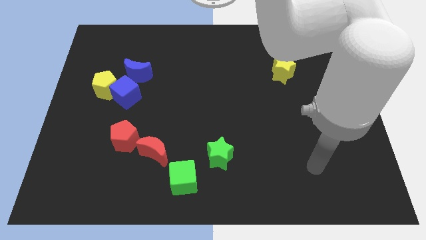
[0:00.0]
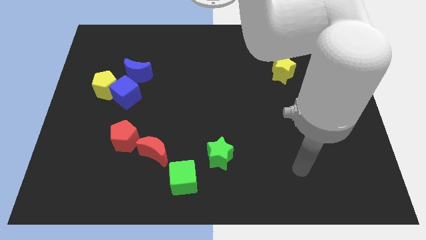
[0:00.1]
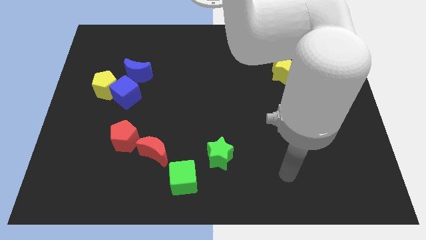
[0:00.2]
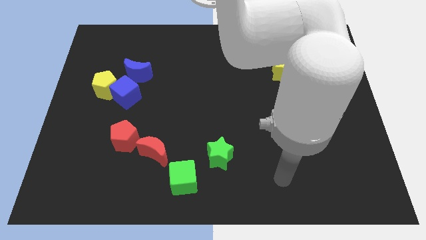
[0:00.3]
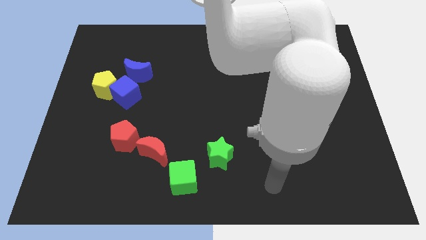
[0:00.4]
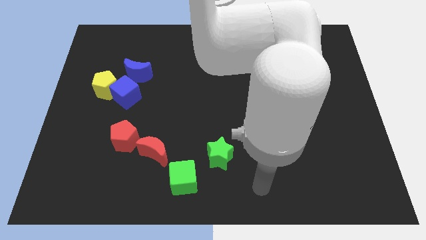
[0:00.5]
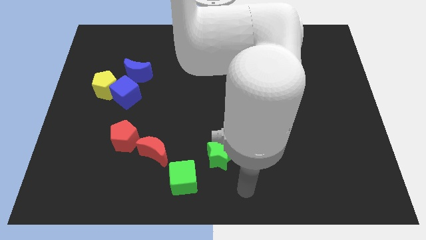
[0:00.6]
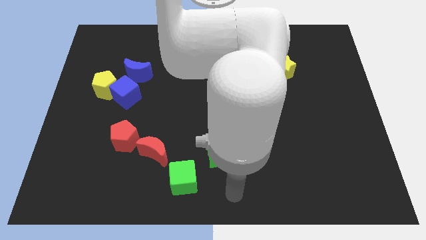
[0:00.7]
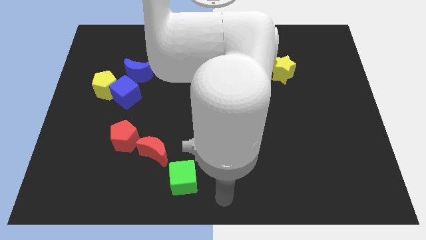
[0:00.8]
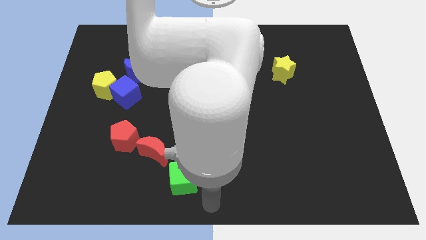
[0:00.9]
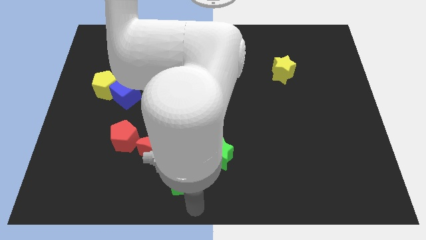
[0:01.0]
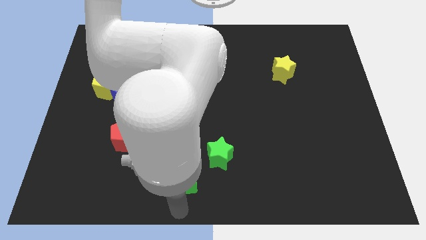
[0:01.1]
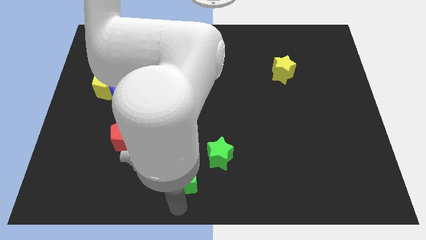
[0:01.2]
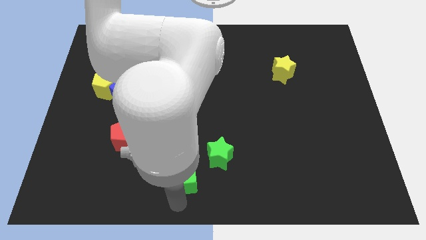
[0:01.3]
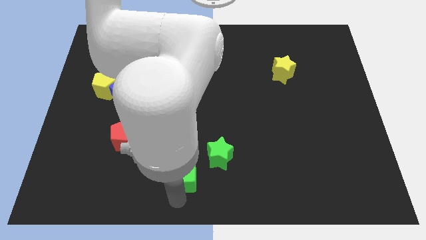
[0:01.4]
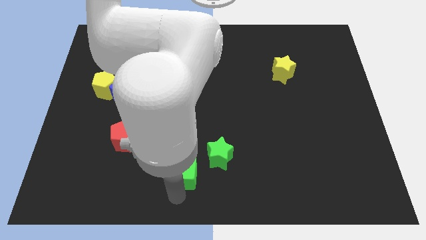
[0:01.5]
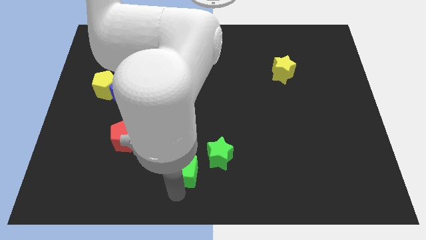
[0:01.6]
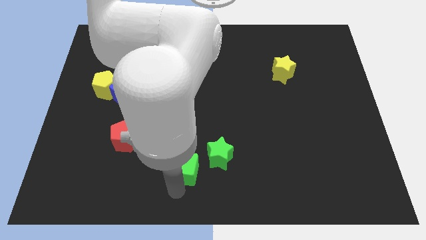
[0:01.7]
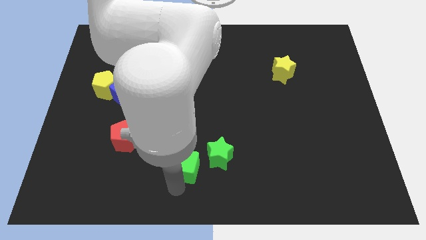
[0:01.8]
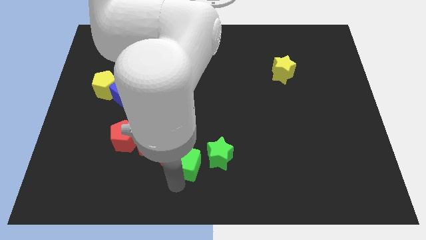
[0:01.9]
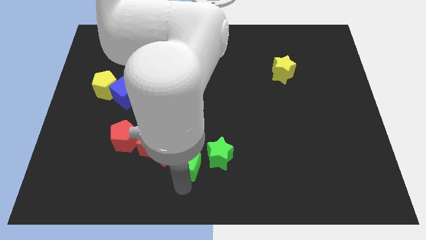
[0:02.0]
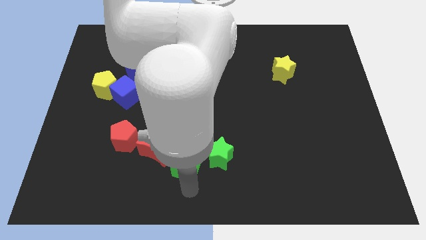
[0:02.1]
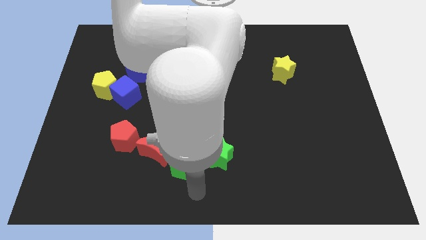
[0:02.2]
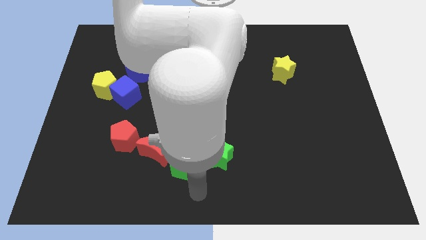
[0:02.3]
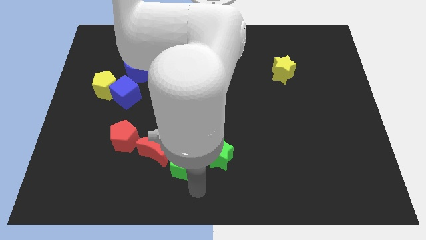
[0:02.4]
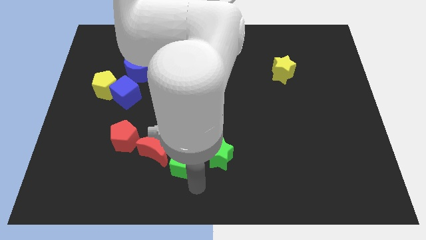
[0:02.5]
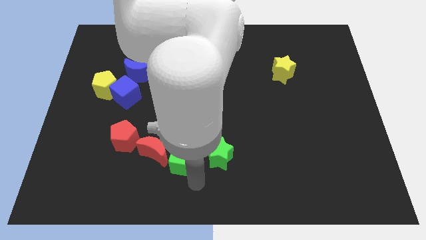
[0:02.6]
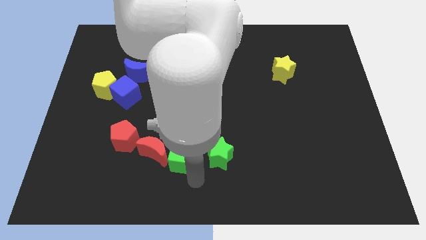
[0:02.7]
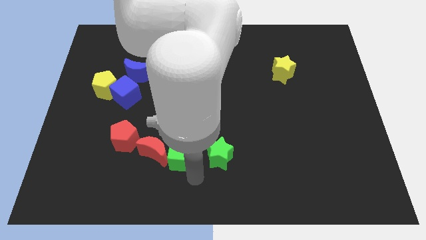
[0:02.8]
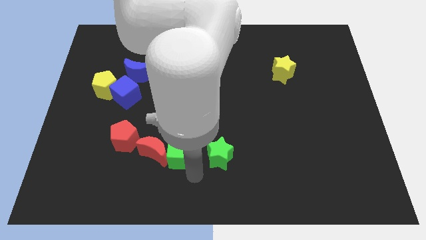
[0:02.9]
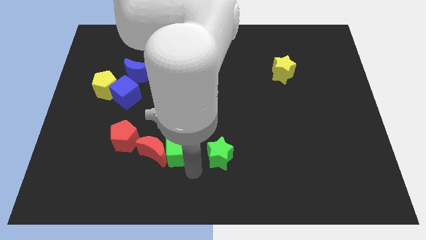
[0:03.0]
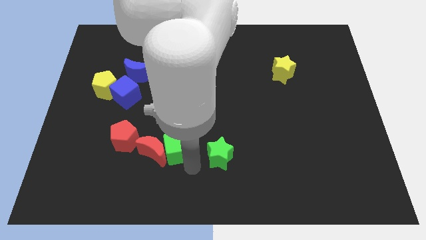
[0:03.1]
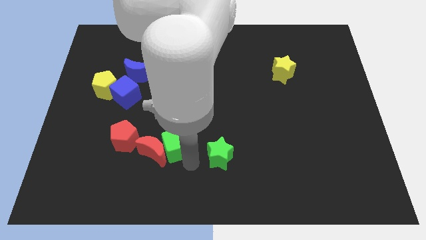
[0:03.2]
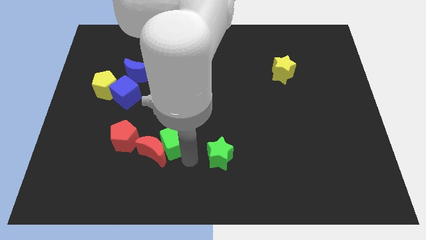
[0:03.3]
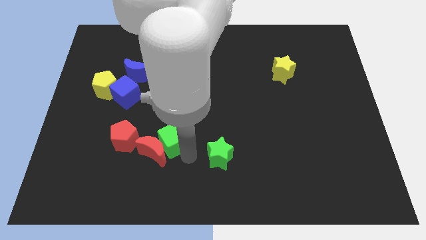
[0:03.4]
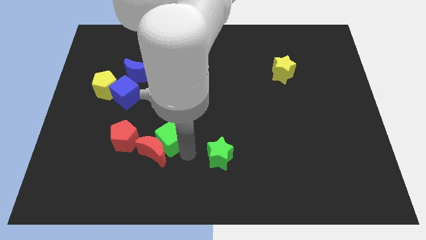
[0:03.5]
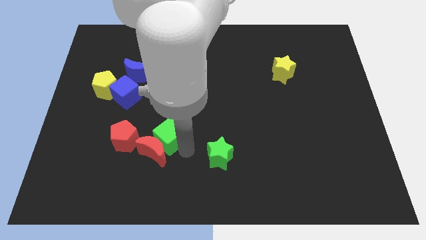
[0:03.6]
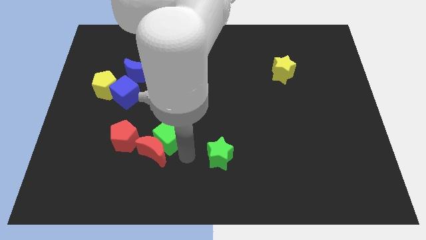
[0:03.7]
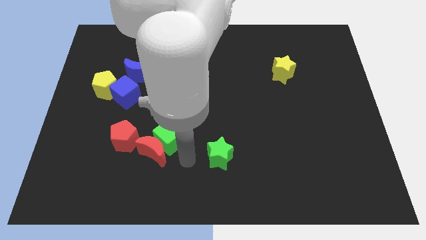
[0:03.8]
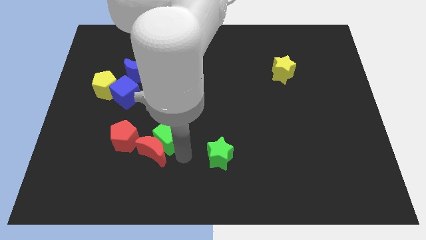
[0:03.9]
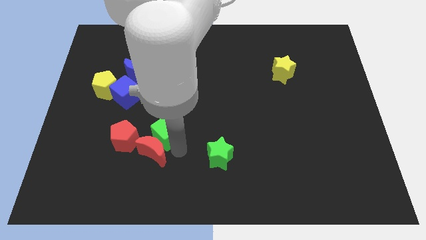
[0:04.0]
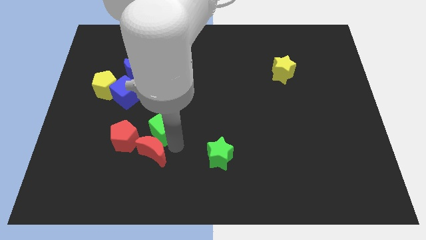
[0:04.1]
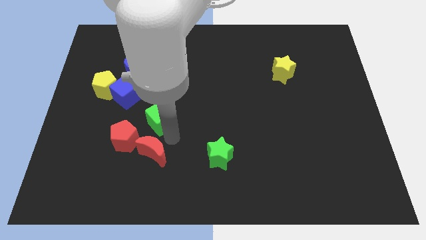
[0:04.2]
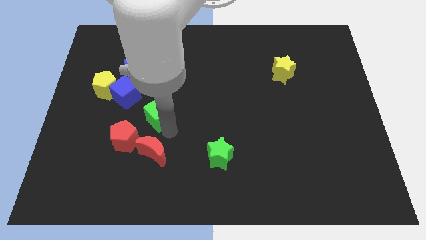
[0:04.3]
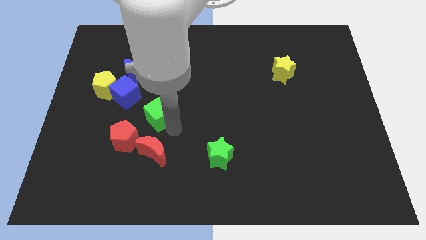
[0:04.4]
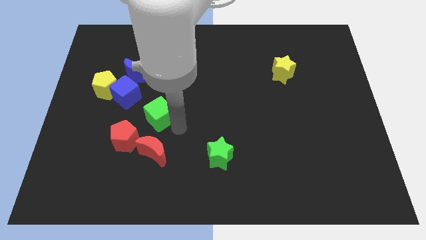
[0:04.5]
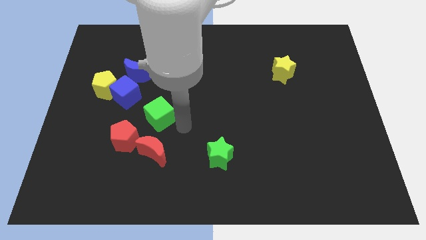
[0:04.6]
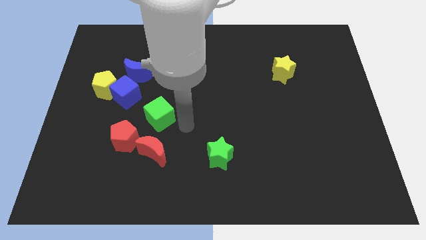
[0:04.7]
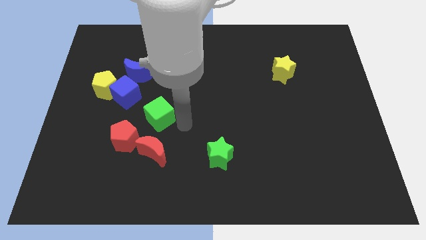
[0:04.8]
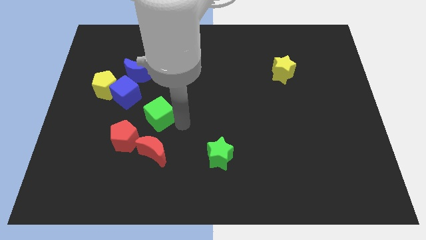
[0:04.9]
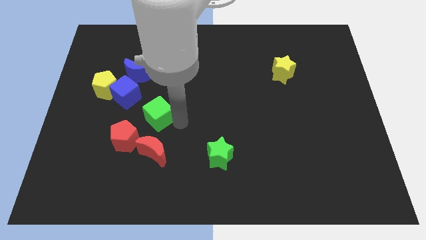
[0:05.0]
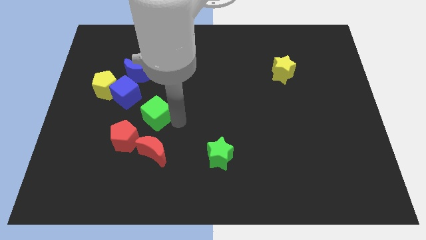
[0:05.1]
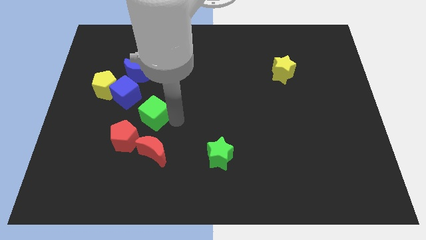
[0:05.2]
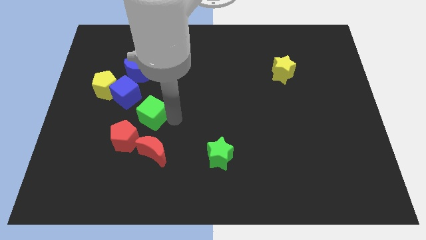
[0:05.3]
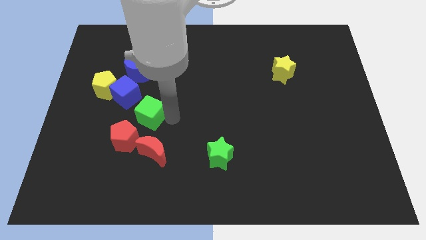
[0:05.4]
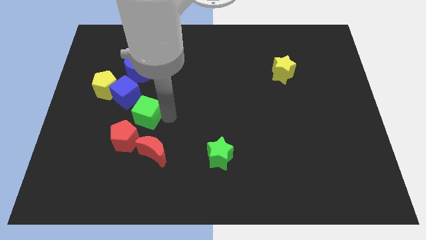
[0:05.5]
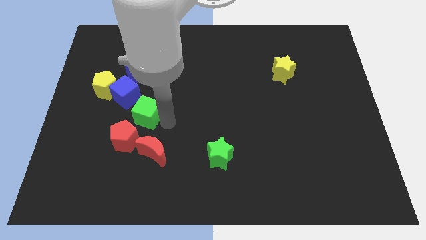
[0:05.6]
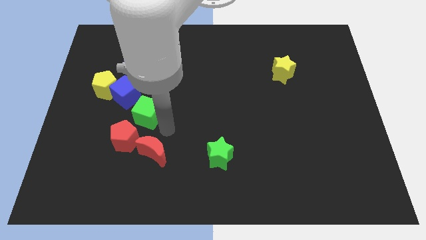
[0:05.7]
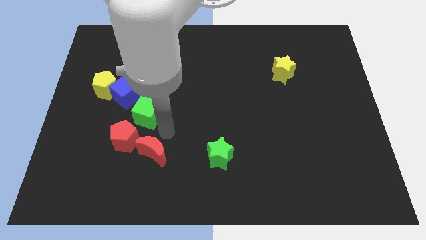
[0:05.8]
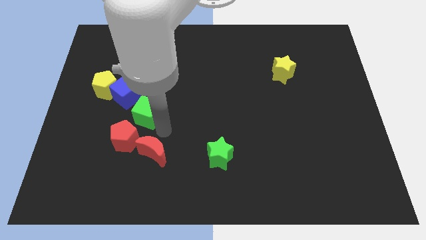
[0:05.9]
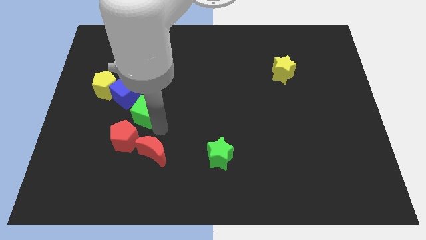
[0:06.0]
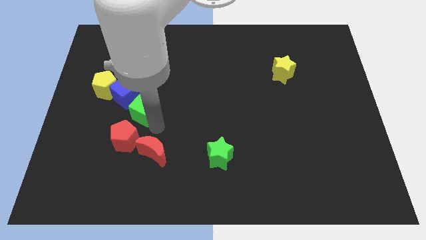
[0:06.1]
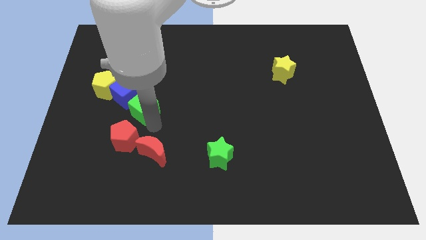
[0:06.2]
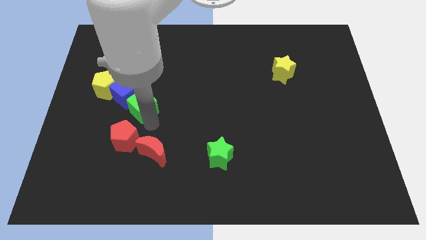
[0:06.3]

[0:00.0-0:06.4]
put the green cube close to the blue cube

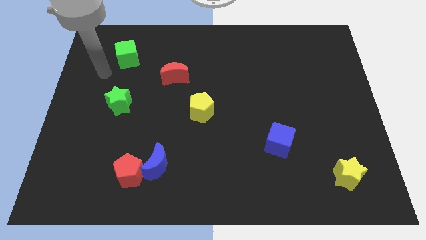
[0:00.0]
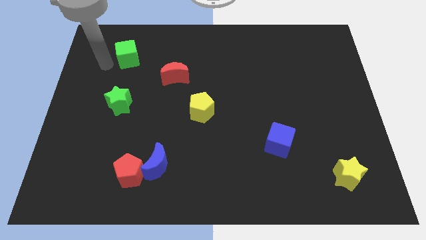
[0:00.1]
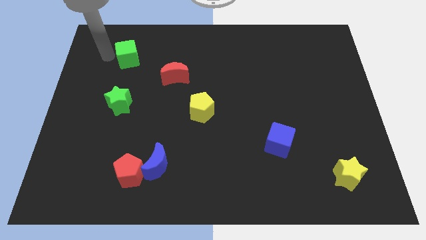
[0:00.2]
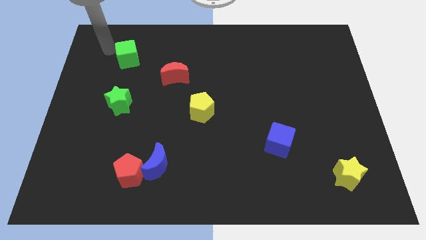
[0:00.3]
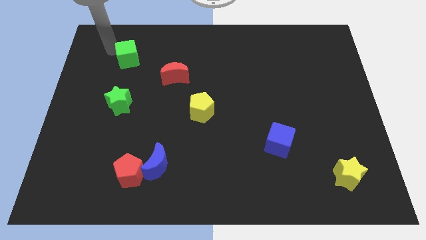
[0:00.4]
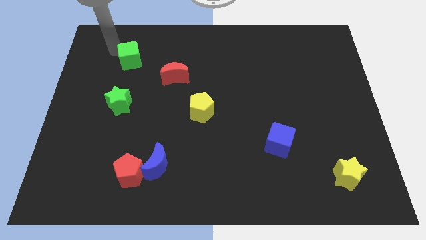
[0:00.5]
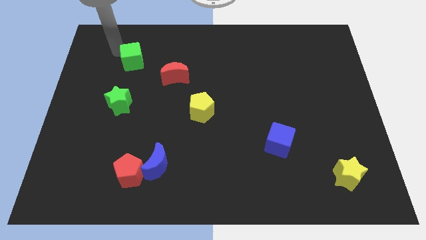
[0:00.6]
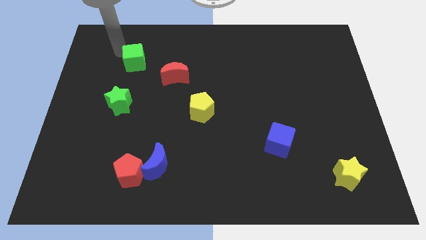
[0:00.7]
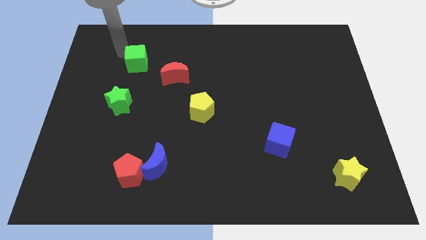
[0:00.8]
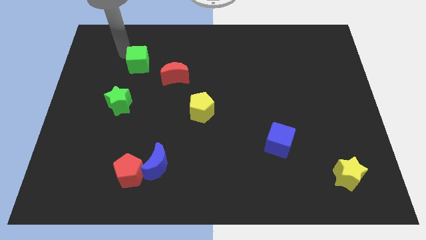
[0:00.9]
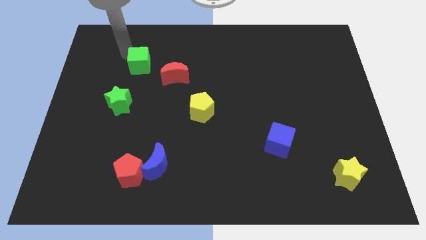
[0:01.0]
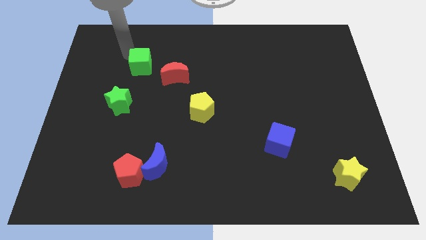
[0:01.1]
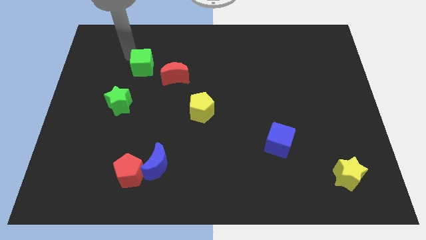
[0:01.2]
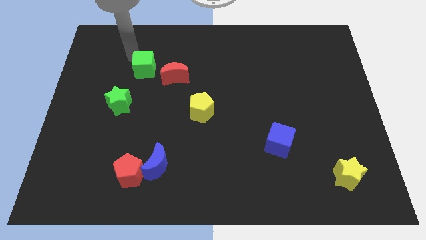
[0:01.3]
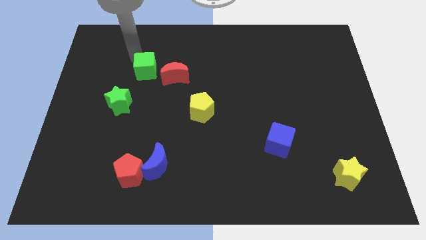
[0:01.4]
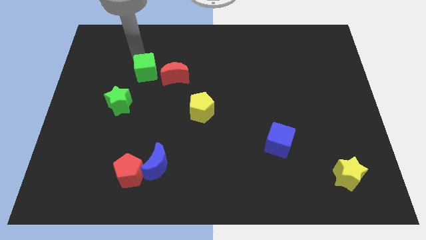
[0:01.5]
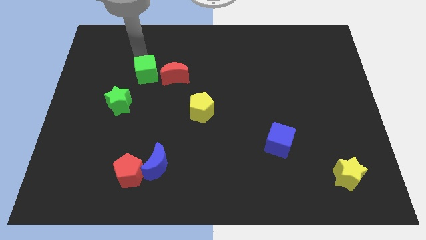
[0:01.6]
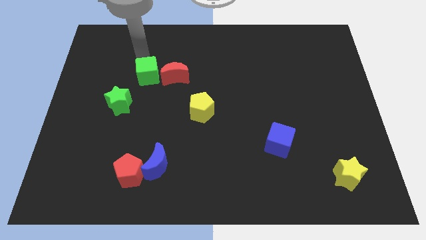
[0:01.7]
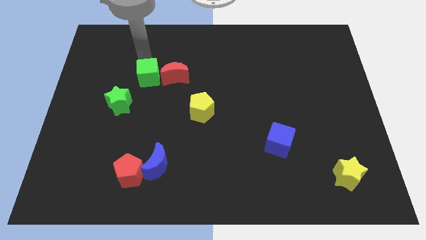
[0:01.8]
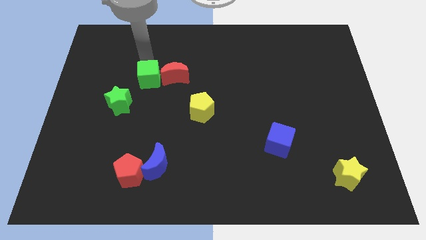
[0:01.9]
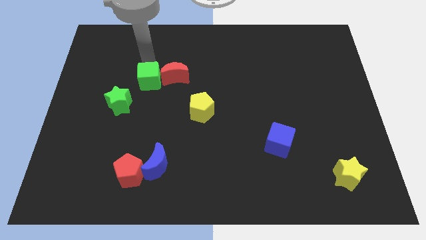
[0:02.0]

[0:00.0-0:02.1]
put the green cube next to the red moon
